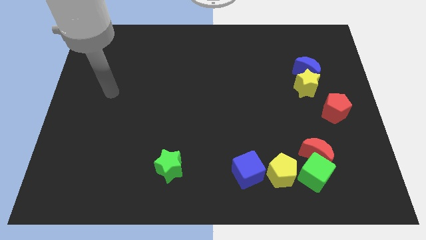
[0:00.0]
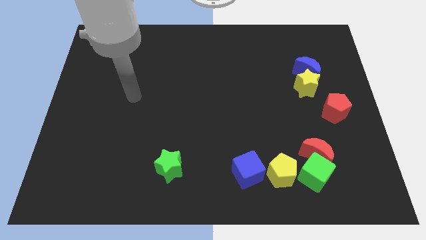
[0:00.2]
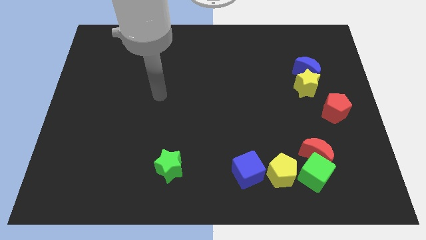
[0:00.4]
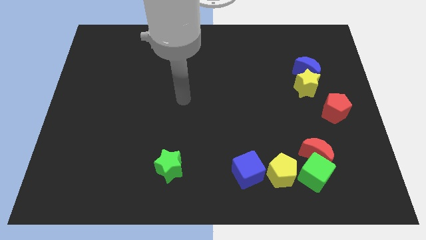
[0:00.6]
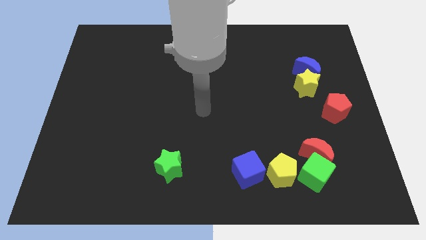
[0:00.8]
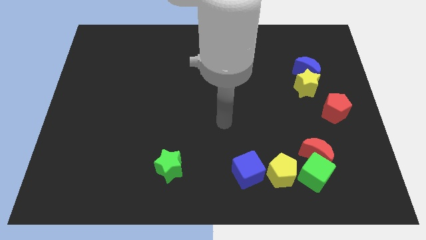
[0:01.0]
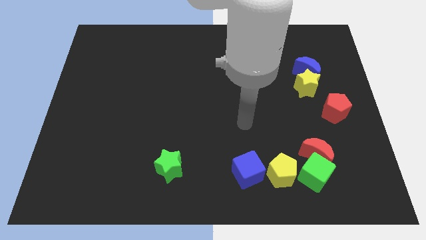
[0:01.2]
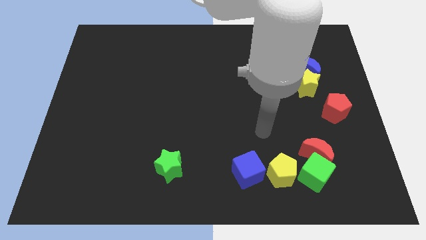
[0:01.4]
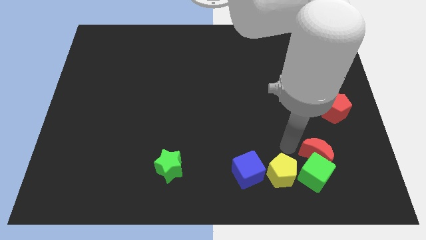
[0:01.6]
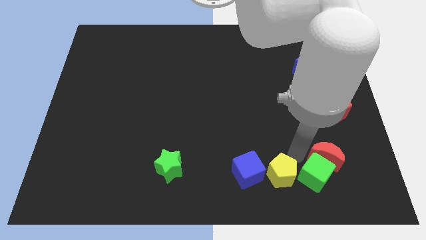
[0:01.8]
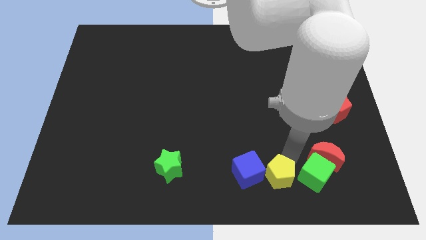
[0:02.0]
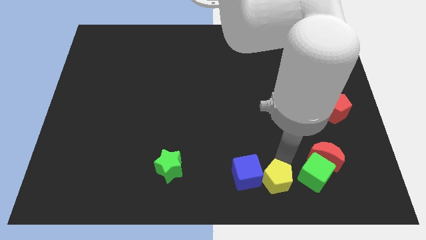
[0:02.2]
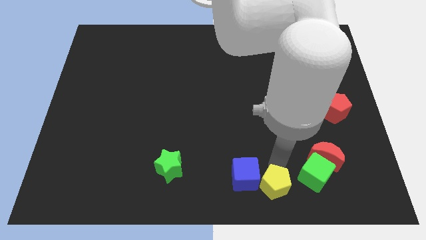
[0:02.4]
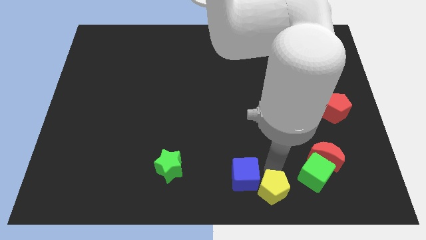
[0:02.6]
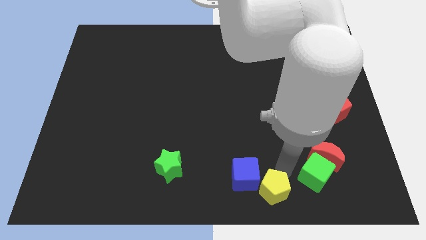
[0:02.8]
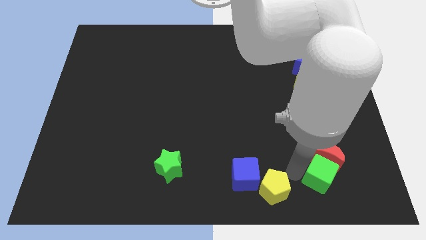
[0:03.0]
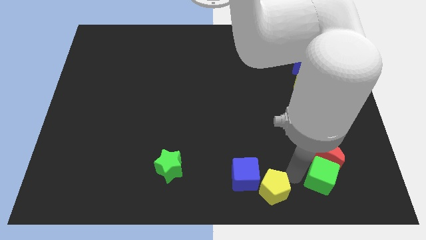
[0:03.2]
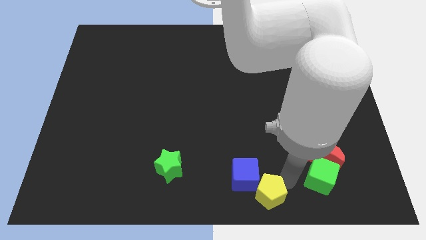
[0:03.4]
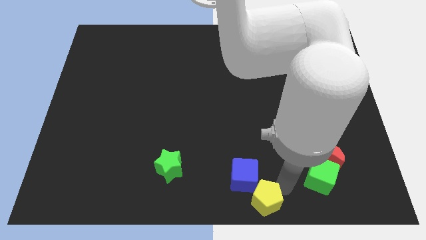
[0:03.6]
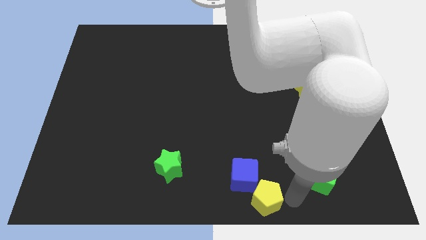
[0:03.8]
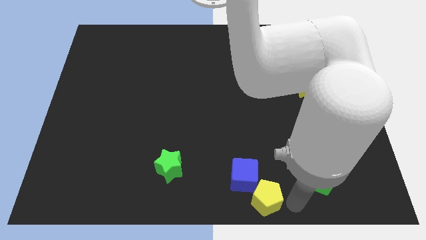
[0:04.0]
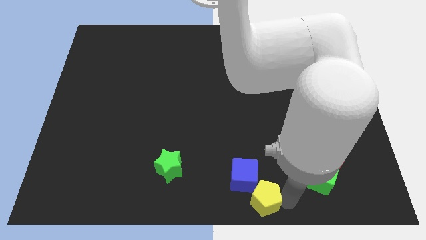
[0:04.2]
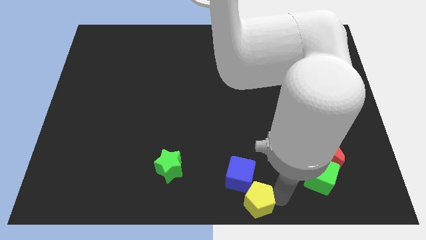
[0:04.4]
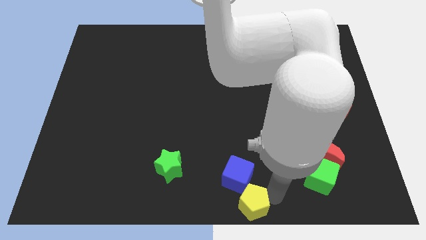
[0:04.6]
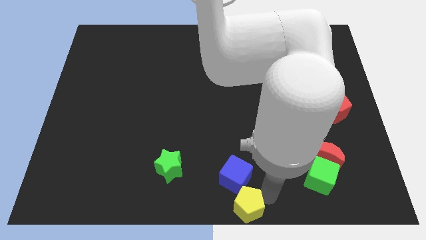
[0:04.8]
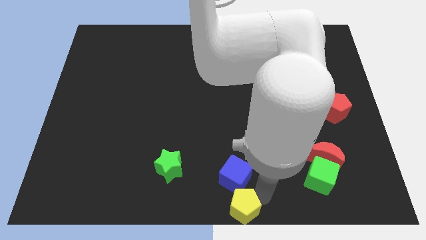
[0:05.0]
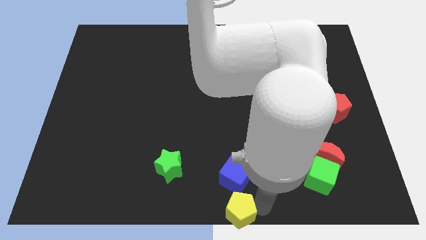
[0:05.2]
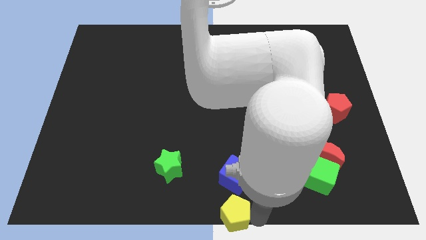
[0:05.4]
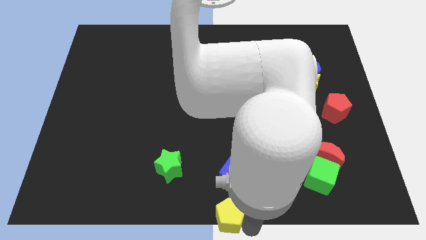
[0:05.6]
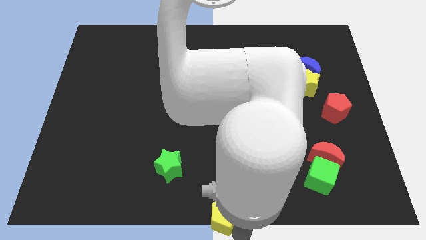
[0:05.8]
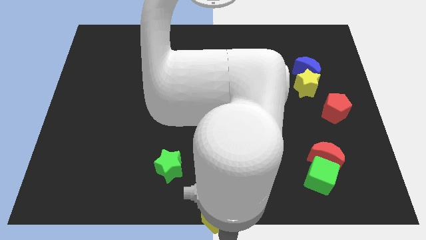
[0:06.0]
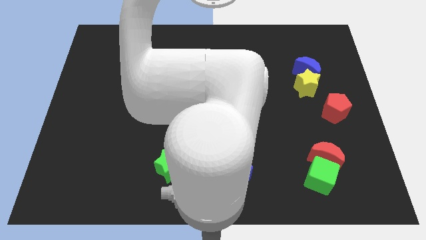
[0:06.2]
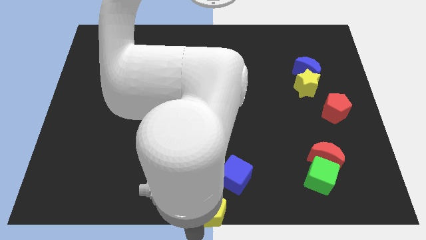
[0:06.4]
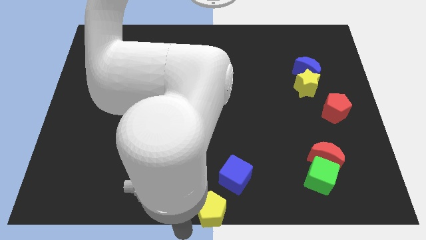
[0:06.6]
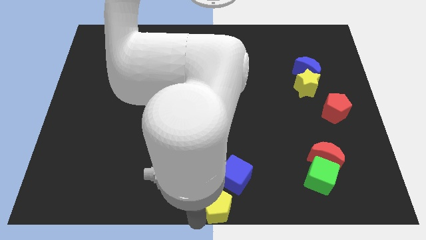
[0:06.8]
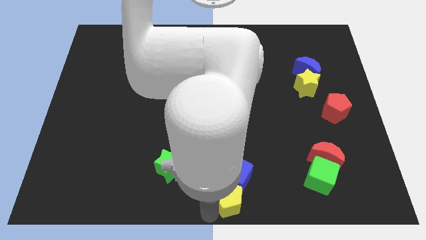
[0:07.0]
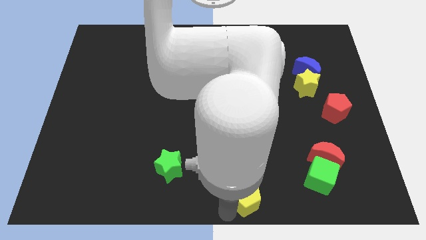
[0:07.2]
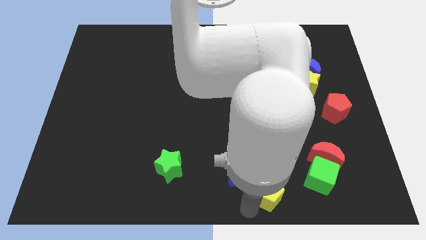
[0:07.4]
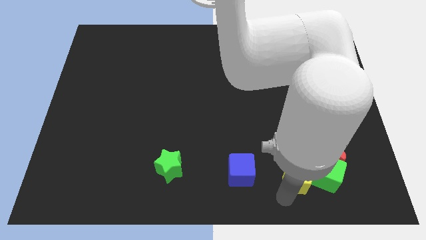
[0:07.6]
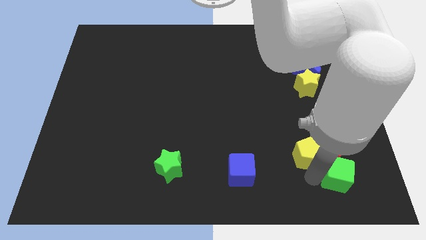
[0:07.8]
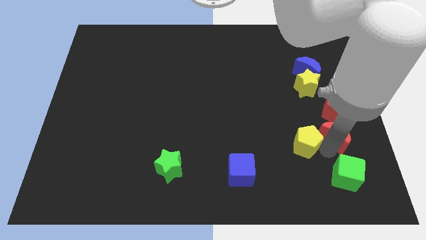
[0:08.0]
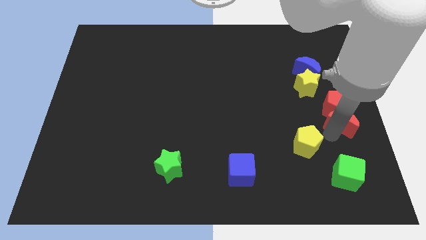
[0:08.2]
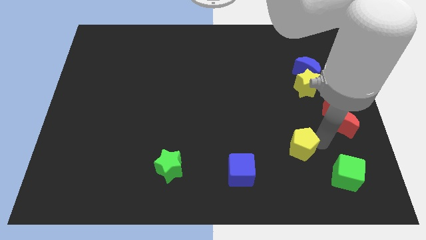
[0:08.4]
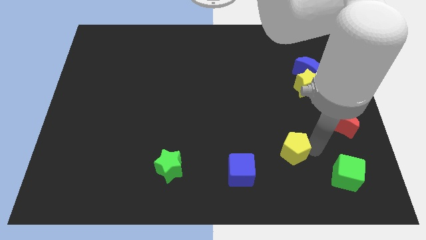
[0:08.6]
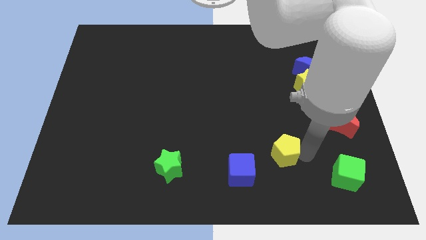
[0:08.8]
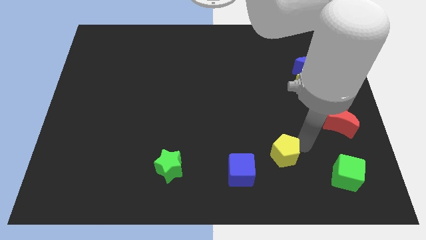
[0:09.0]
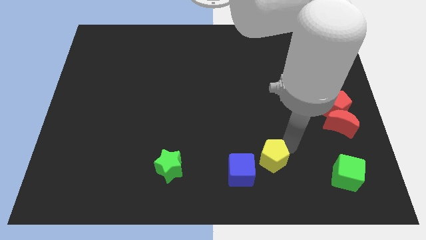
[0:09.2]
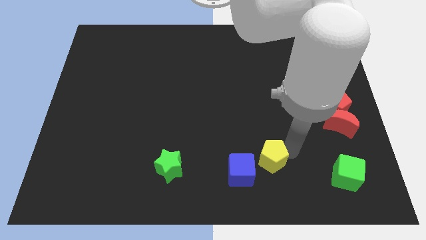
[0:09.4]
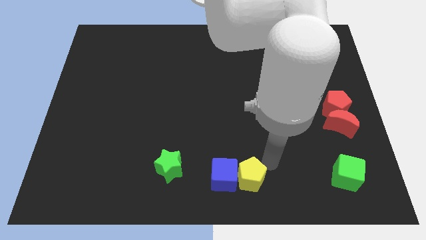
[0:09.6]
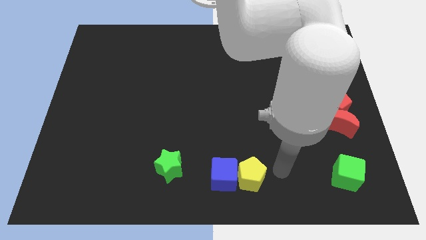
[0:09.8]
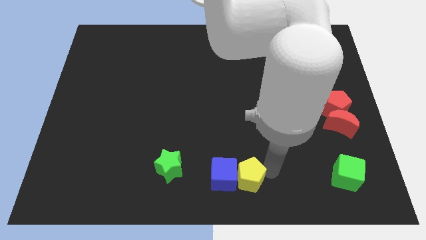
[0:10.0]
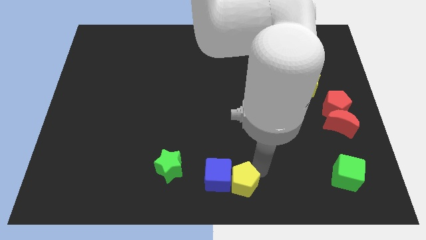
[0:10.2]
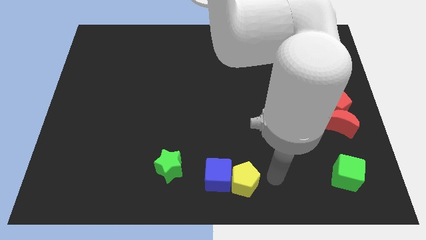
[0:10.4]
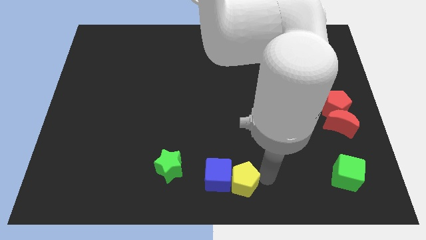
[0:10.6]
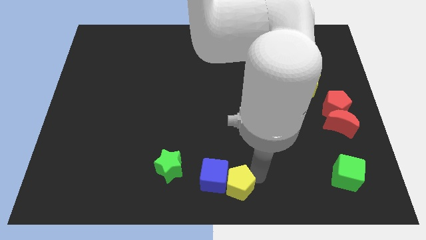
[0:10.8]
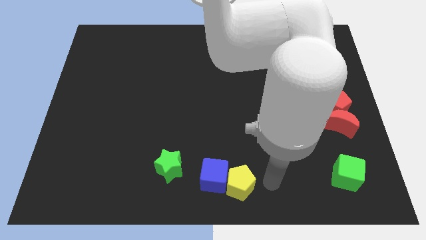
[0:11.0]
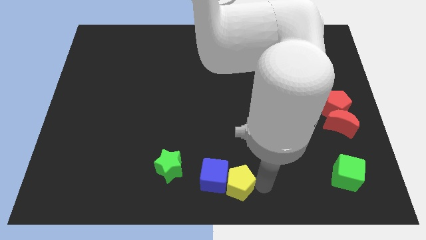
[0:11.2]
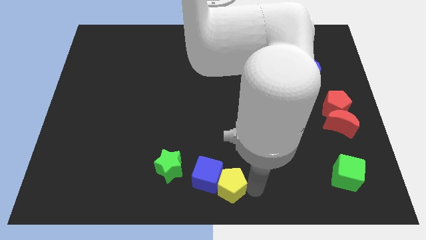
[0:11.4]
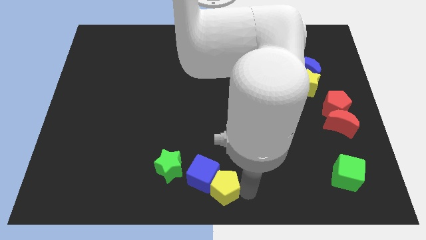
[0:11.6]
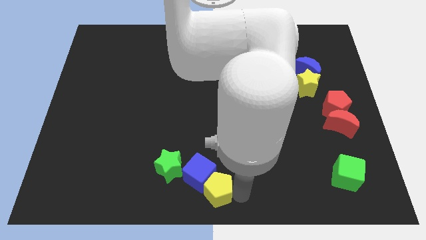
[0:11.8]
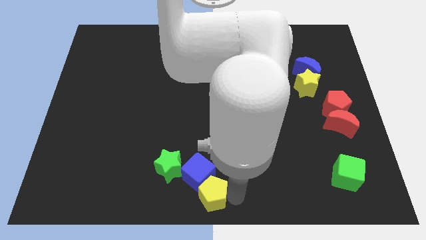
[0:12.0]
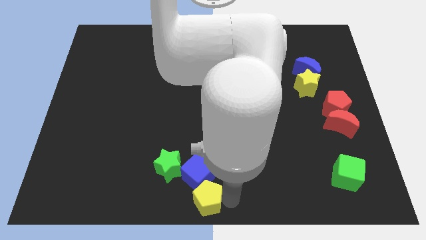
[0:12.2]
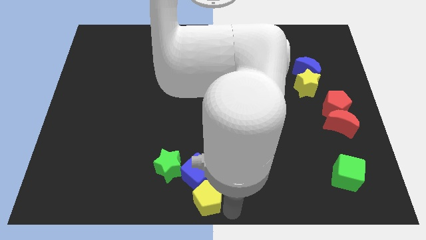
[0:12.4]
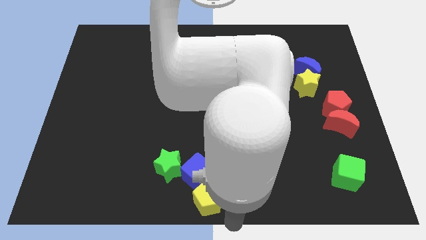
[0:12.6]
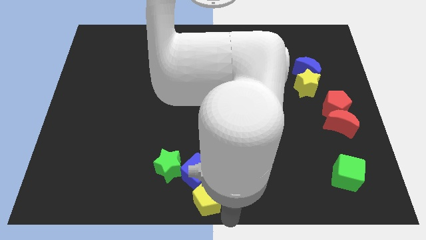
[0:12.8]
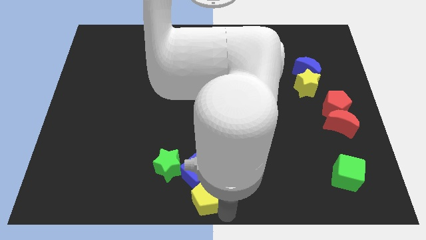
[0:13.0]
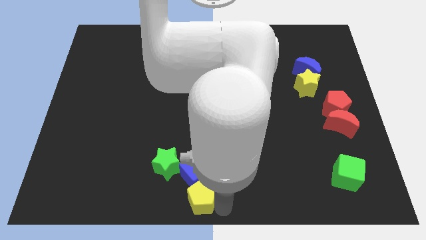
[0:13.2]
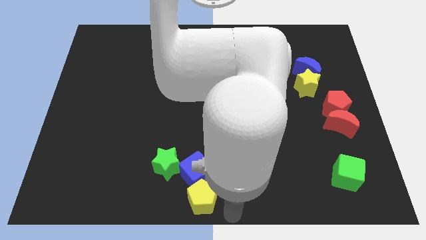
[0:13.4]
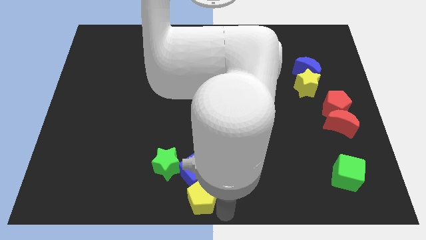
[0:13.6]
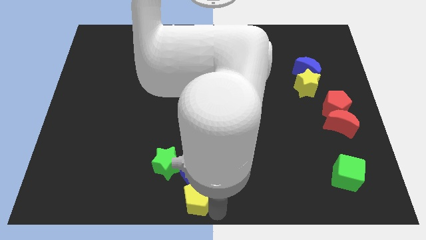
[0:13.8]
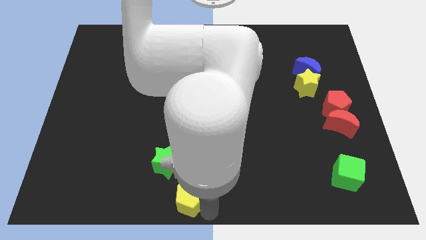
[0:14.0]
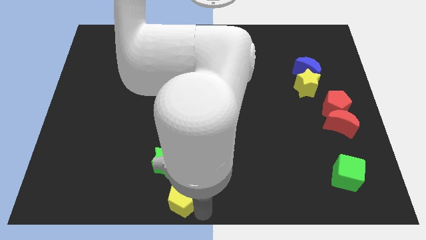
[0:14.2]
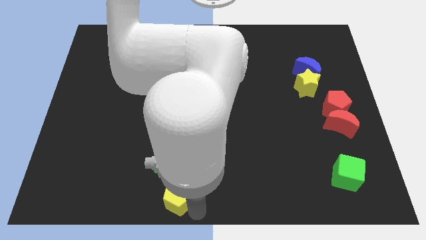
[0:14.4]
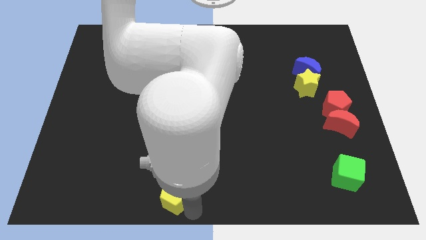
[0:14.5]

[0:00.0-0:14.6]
move the yellow pentagon left

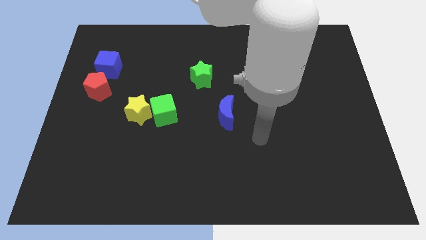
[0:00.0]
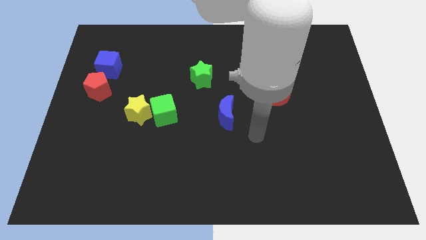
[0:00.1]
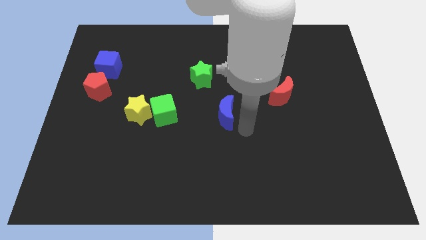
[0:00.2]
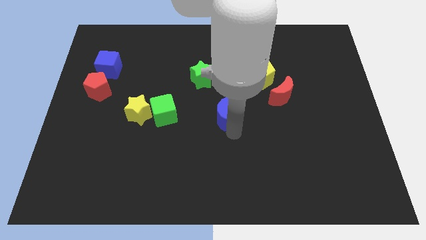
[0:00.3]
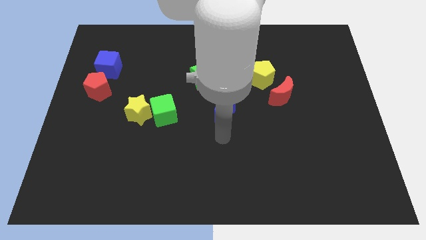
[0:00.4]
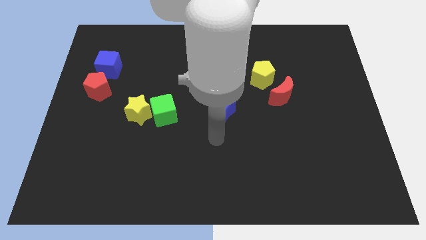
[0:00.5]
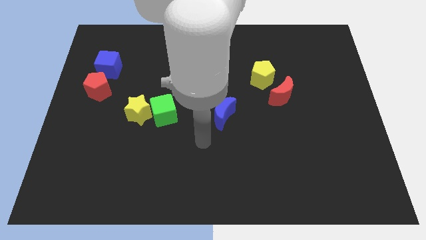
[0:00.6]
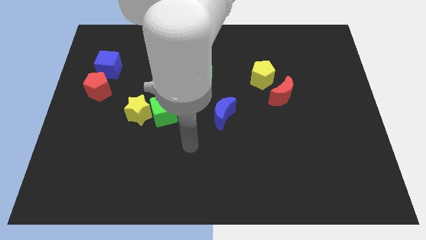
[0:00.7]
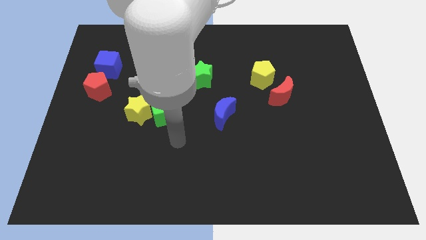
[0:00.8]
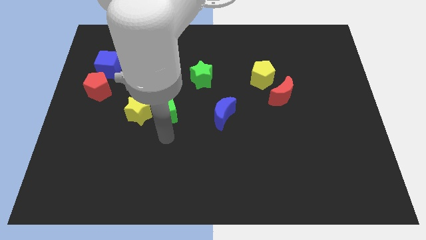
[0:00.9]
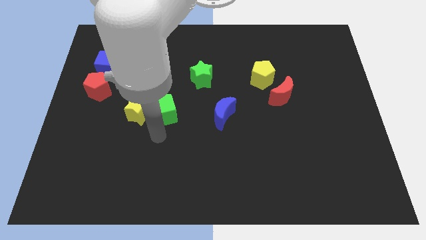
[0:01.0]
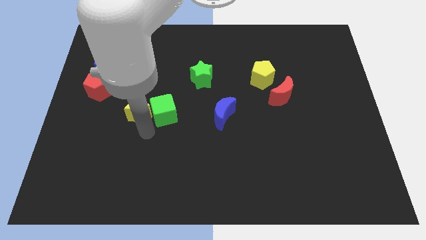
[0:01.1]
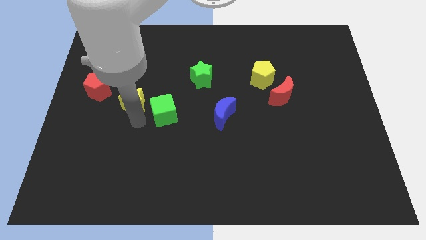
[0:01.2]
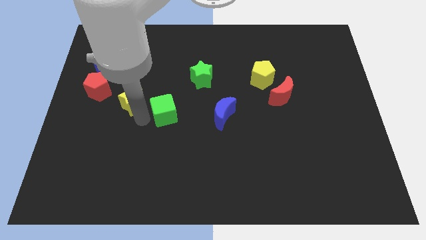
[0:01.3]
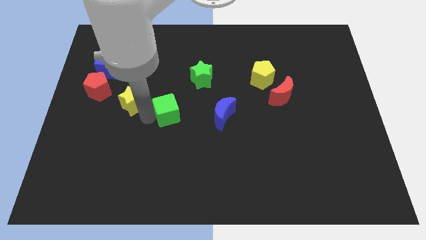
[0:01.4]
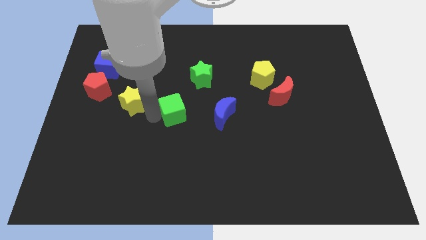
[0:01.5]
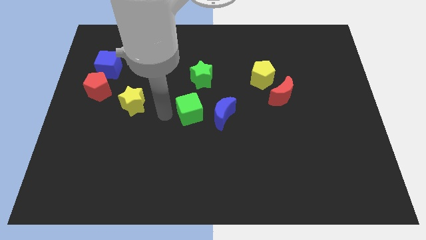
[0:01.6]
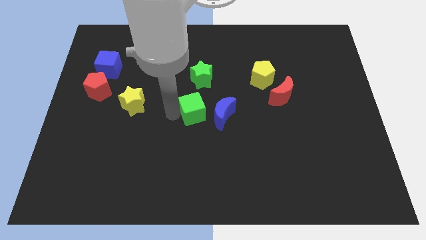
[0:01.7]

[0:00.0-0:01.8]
slide the green cube somewhat right
